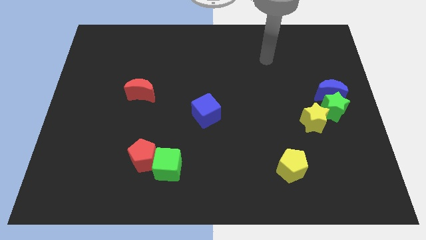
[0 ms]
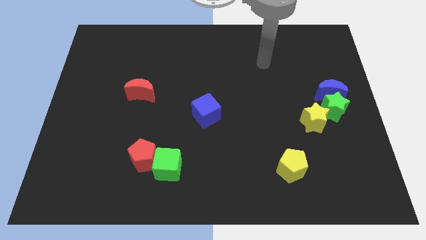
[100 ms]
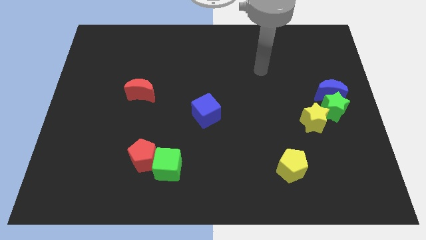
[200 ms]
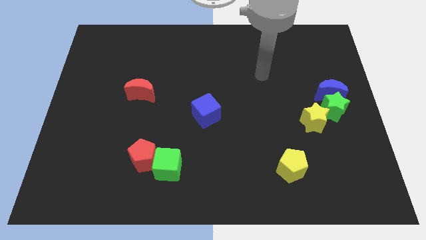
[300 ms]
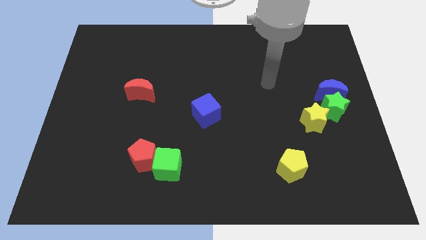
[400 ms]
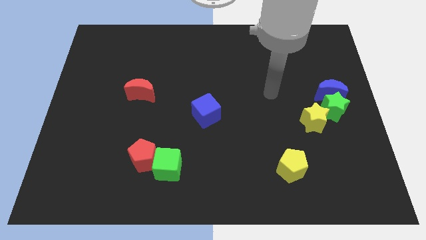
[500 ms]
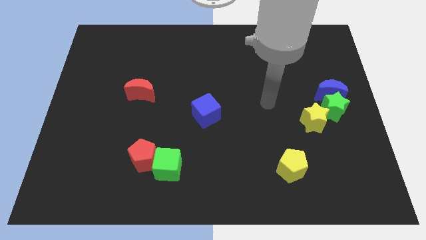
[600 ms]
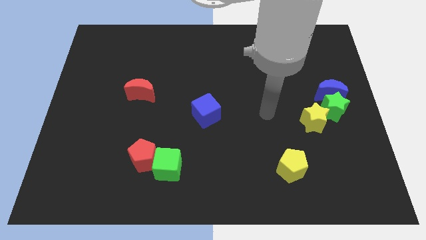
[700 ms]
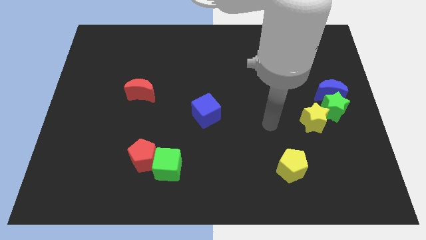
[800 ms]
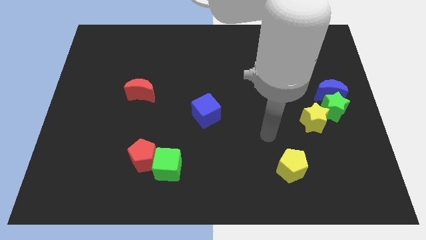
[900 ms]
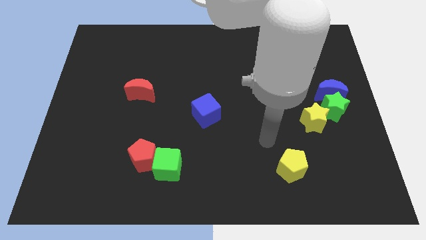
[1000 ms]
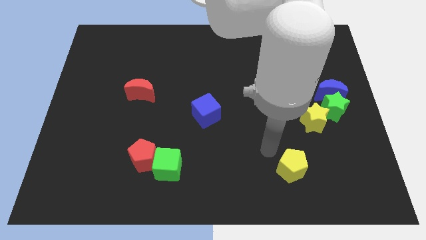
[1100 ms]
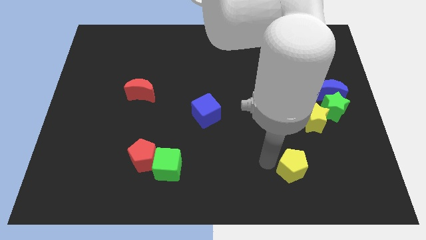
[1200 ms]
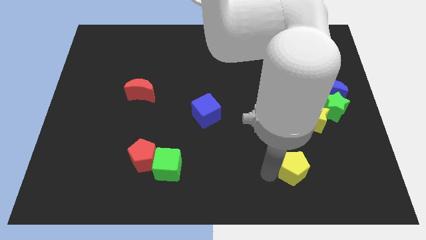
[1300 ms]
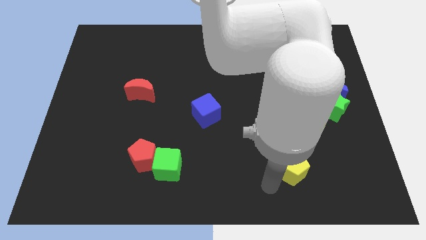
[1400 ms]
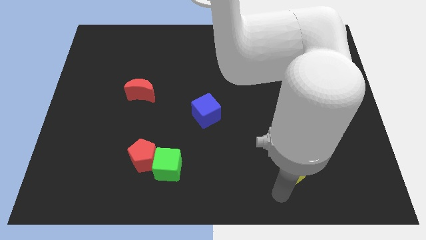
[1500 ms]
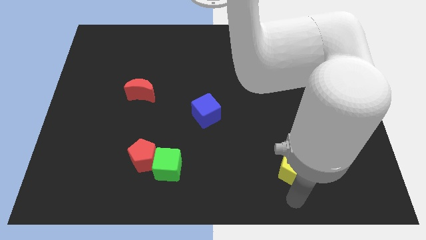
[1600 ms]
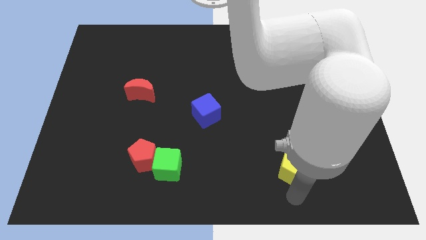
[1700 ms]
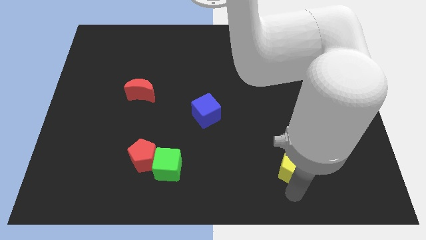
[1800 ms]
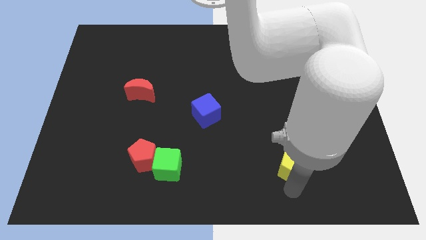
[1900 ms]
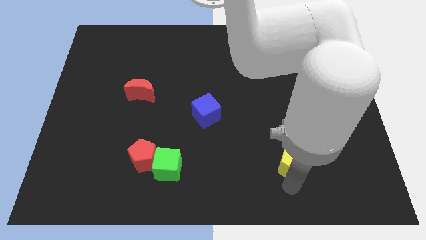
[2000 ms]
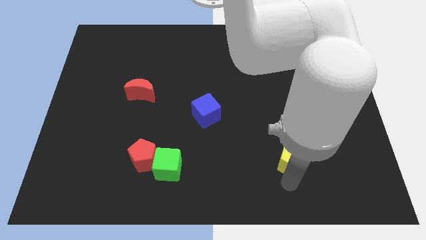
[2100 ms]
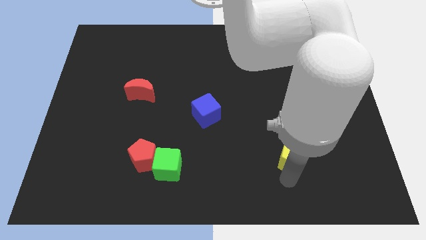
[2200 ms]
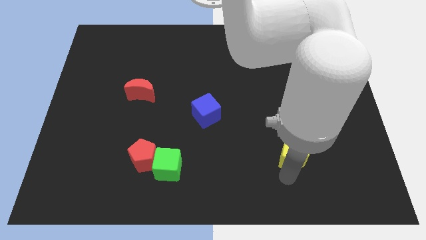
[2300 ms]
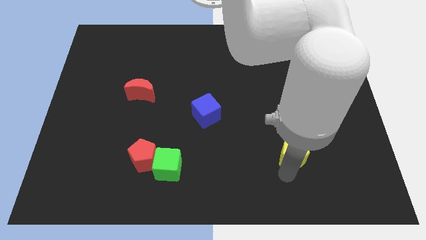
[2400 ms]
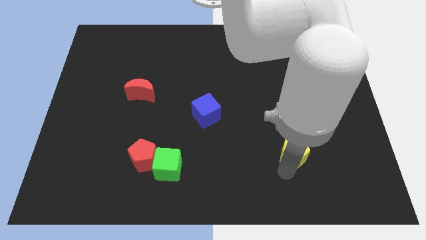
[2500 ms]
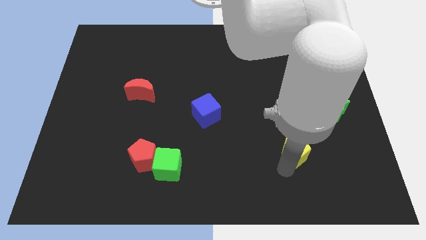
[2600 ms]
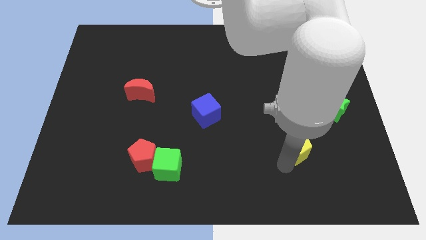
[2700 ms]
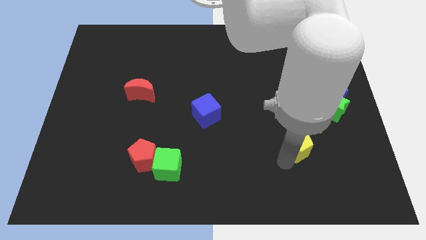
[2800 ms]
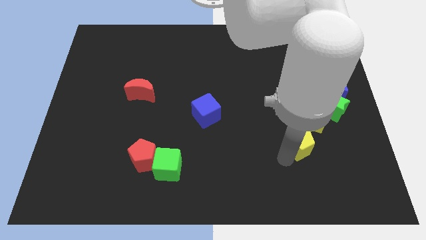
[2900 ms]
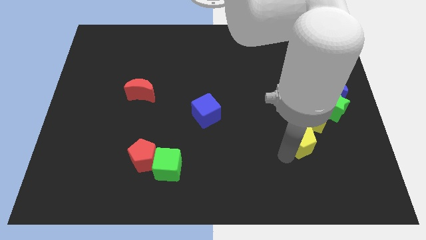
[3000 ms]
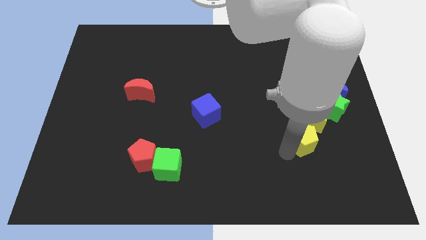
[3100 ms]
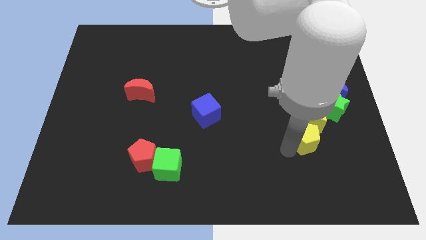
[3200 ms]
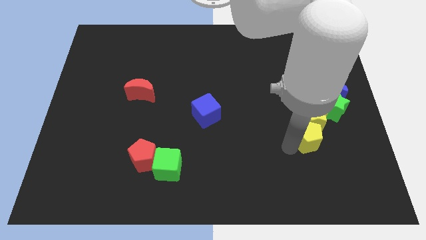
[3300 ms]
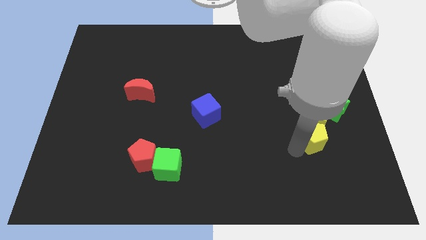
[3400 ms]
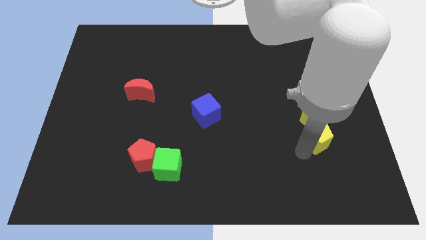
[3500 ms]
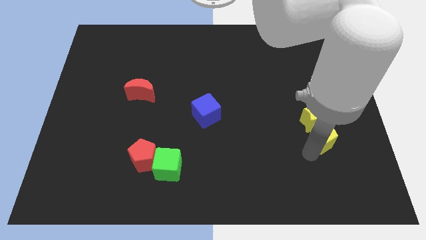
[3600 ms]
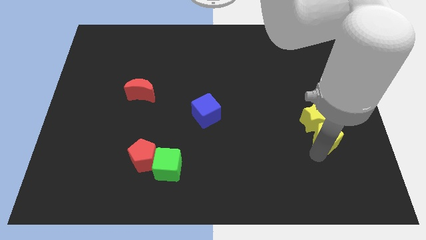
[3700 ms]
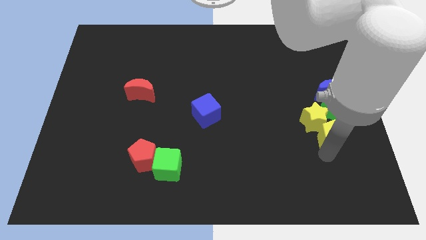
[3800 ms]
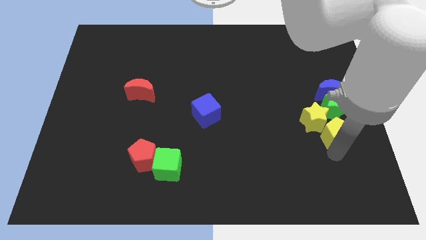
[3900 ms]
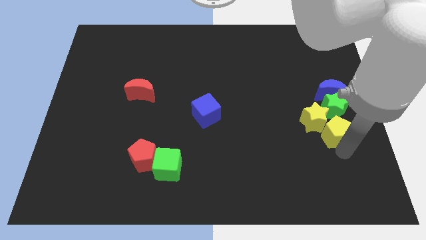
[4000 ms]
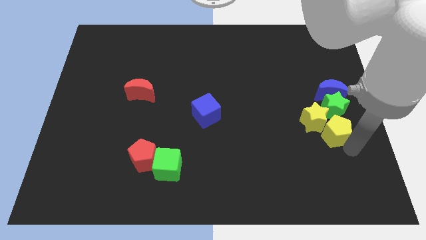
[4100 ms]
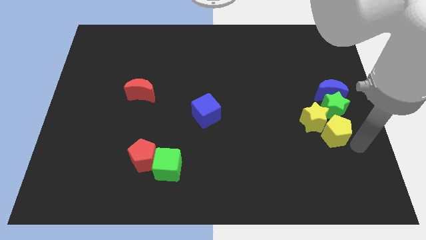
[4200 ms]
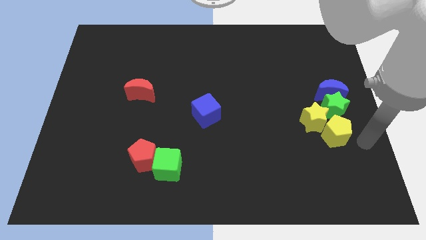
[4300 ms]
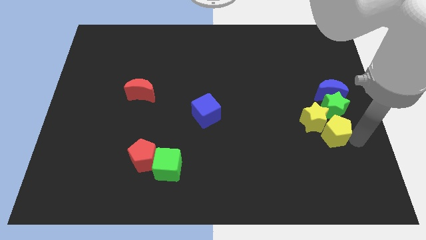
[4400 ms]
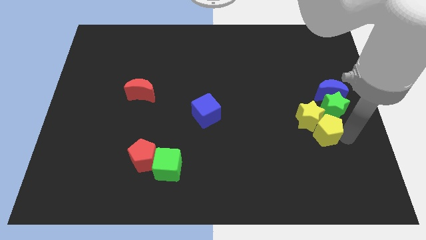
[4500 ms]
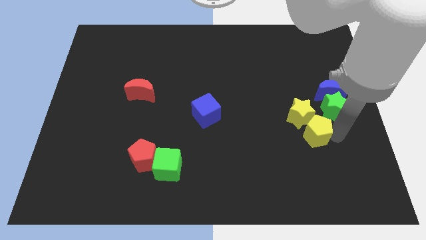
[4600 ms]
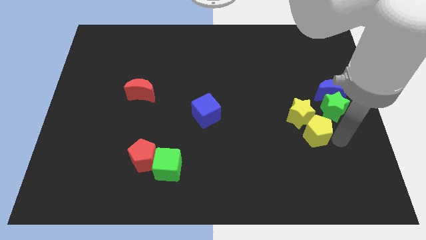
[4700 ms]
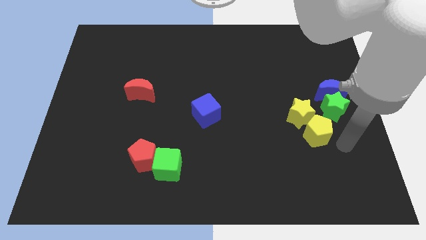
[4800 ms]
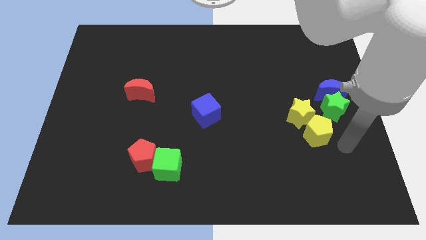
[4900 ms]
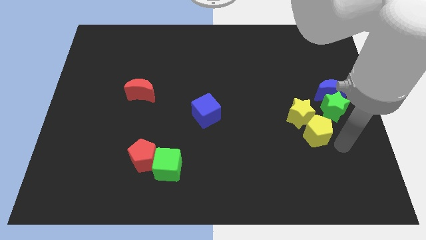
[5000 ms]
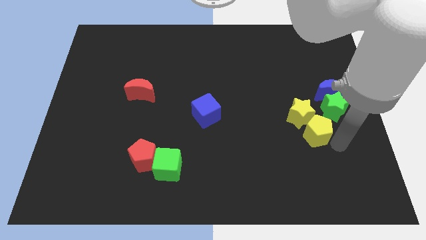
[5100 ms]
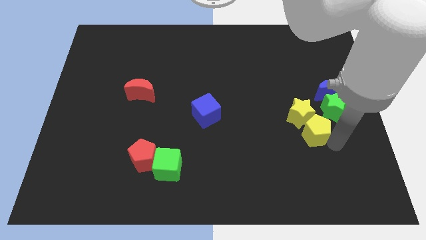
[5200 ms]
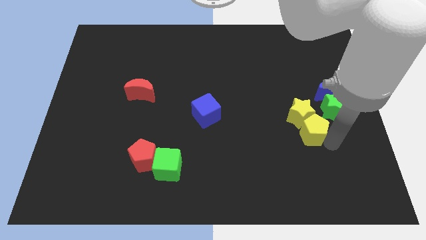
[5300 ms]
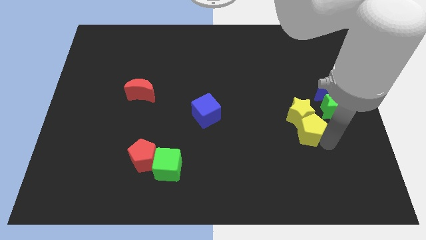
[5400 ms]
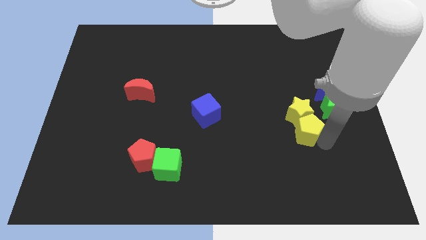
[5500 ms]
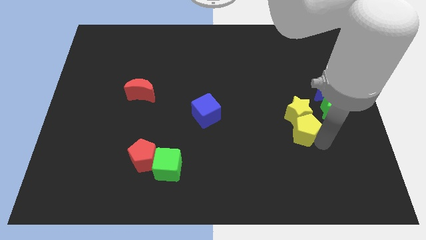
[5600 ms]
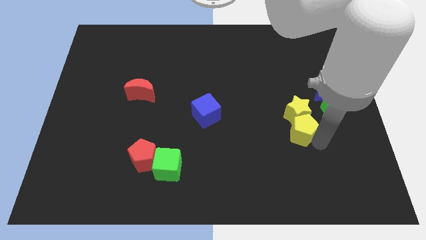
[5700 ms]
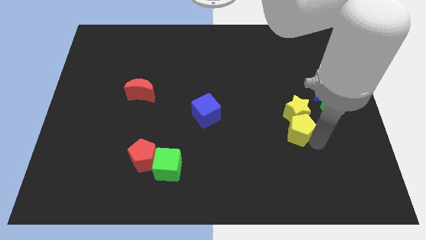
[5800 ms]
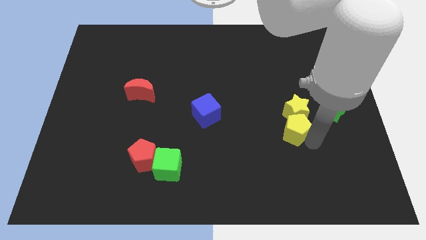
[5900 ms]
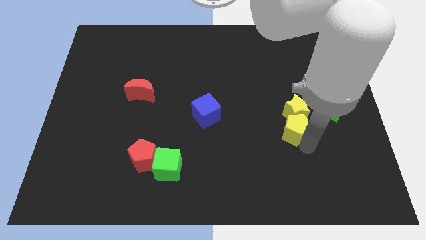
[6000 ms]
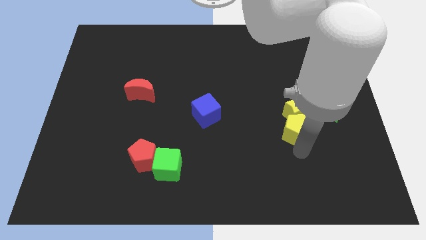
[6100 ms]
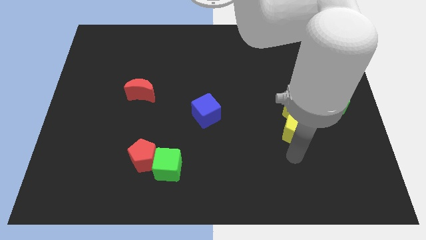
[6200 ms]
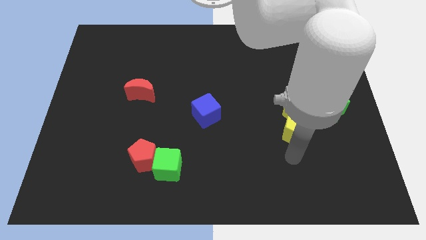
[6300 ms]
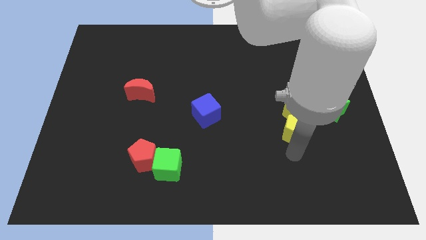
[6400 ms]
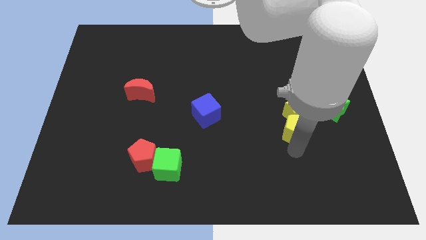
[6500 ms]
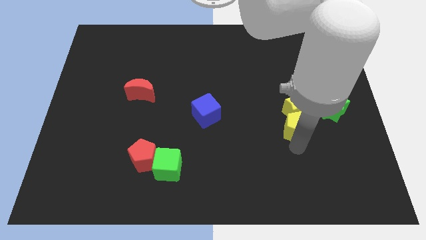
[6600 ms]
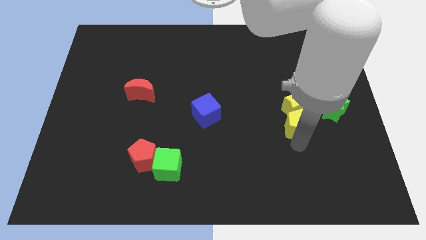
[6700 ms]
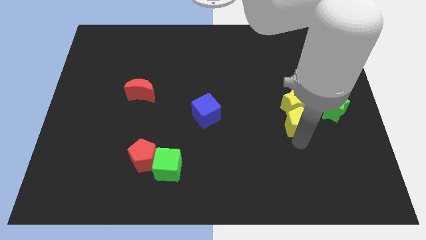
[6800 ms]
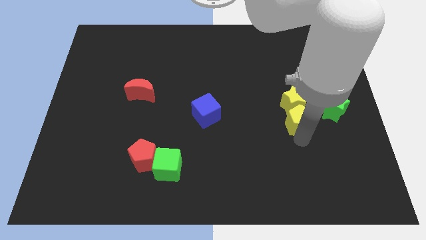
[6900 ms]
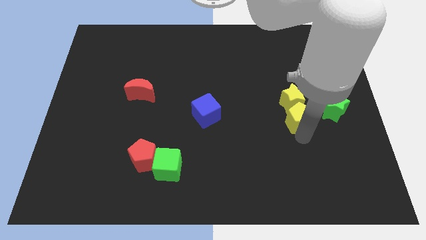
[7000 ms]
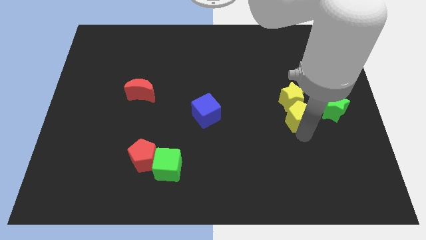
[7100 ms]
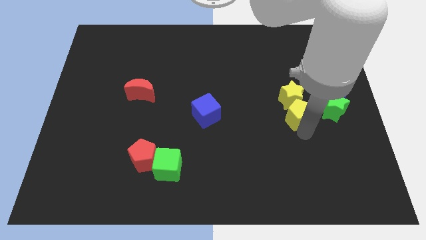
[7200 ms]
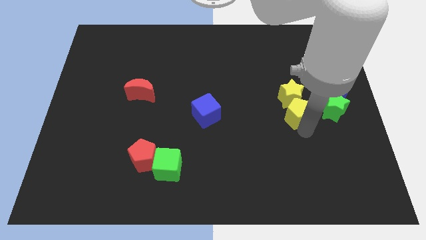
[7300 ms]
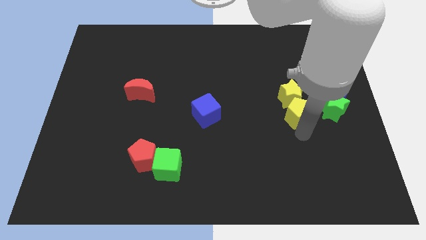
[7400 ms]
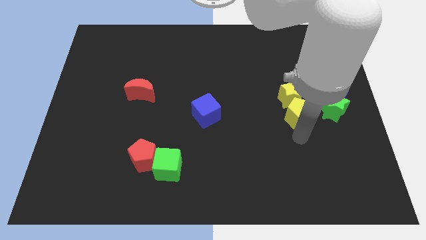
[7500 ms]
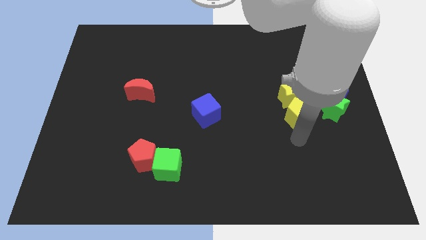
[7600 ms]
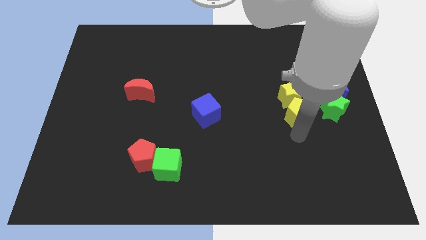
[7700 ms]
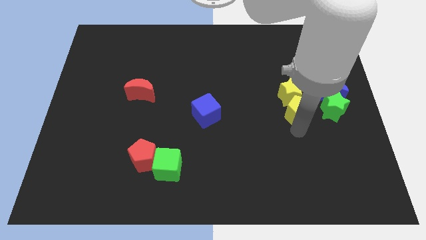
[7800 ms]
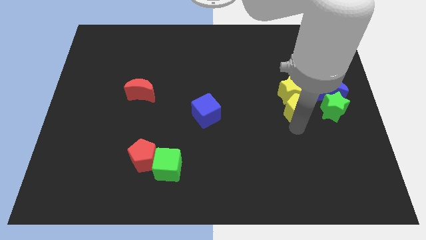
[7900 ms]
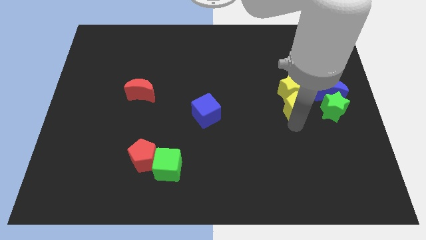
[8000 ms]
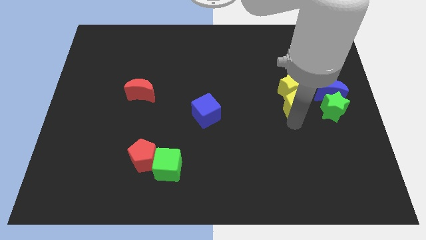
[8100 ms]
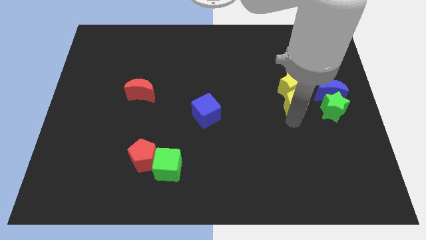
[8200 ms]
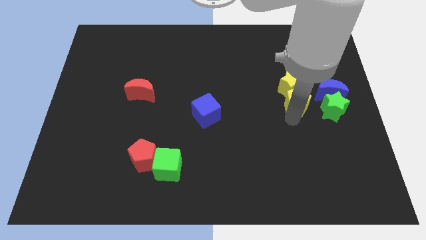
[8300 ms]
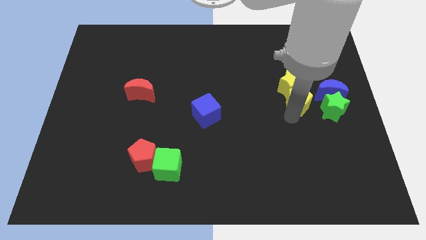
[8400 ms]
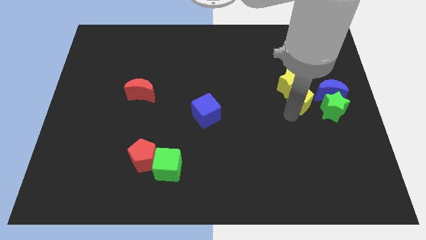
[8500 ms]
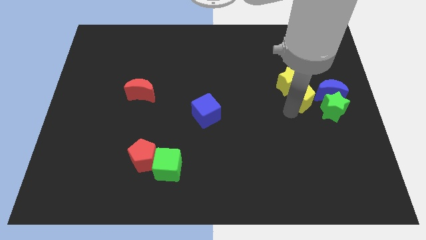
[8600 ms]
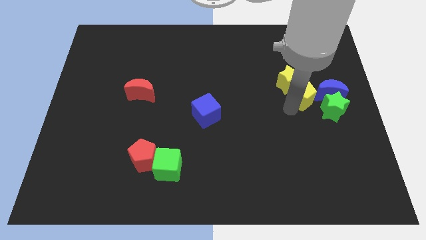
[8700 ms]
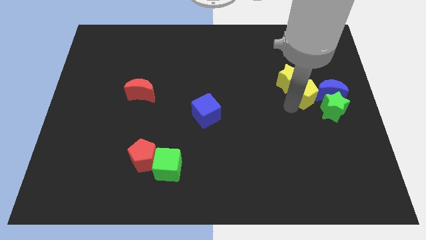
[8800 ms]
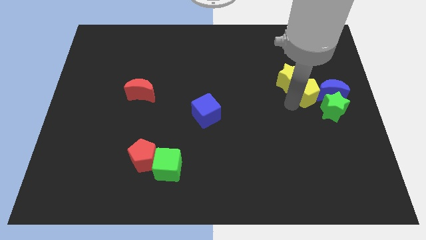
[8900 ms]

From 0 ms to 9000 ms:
move the yellow pentagon towards the blue moon
